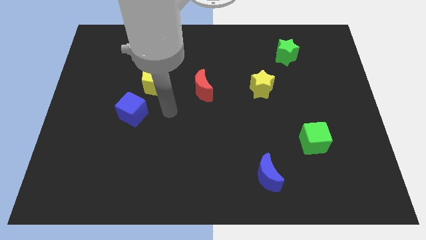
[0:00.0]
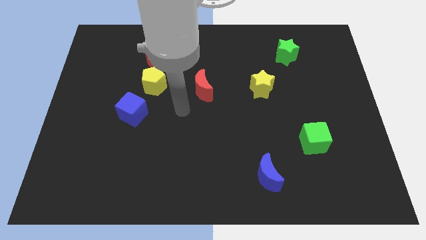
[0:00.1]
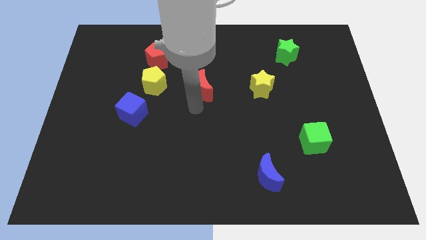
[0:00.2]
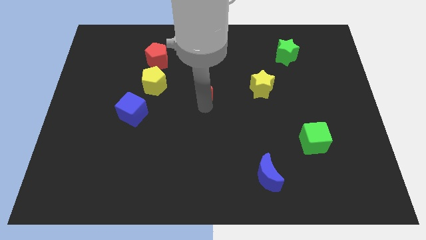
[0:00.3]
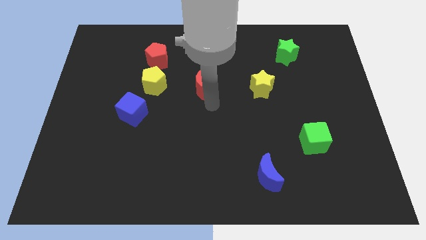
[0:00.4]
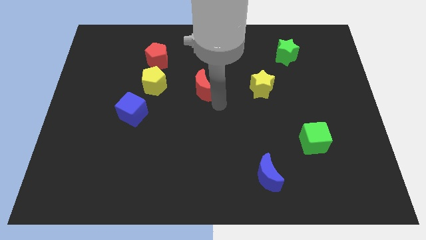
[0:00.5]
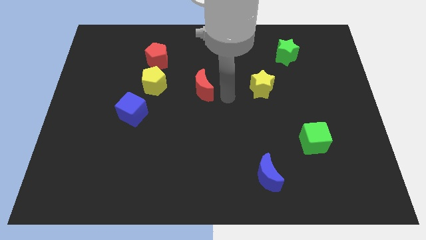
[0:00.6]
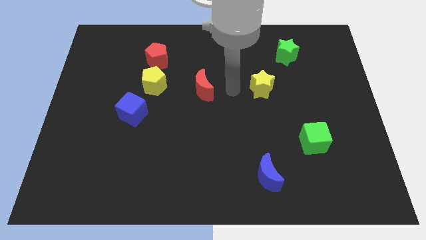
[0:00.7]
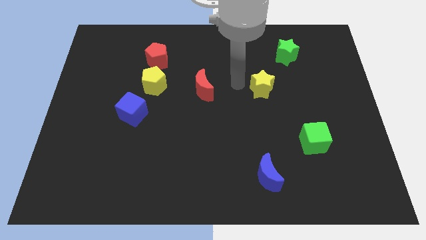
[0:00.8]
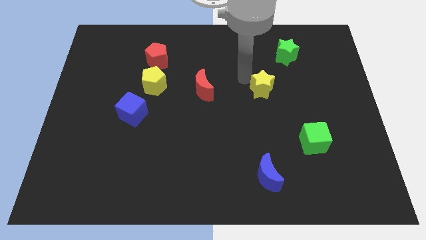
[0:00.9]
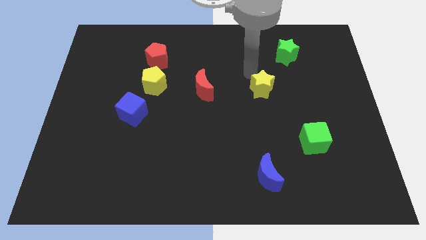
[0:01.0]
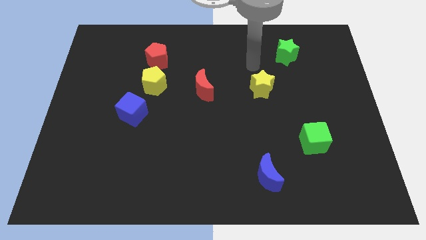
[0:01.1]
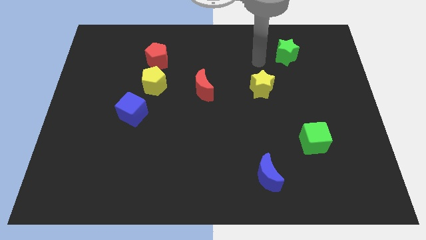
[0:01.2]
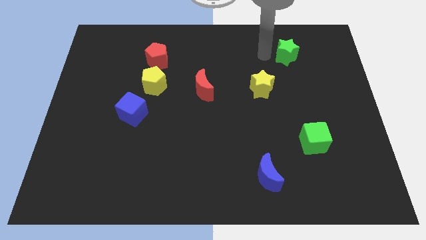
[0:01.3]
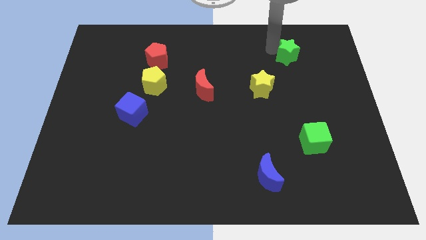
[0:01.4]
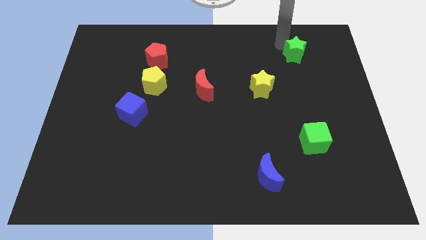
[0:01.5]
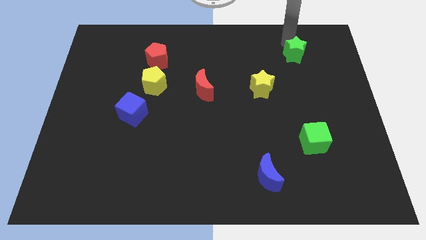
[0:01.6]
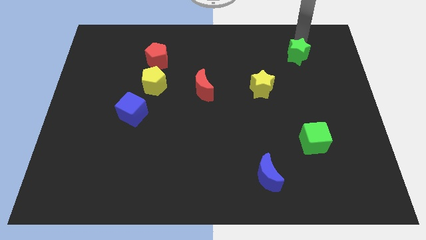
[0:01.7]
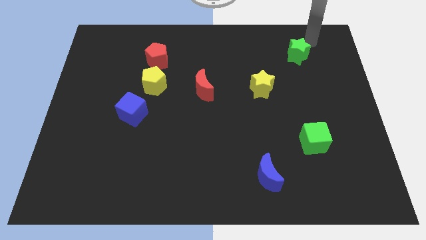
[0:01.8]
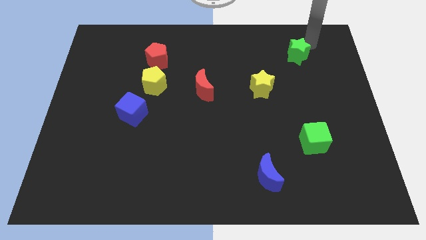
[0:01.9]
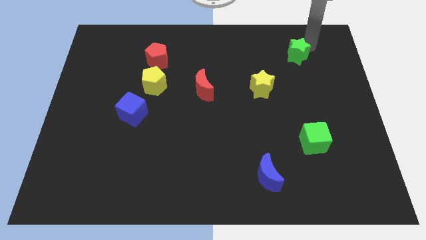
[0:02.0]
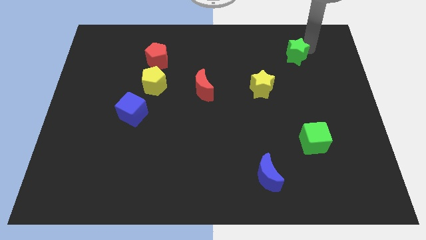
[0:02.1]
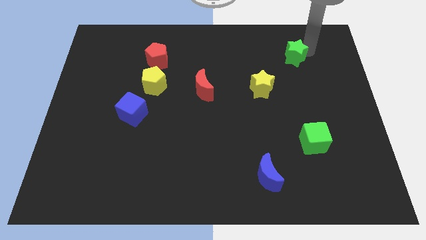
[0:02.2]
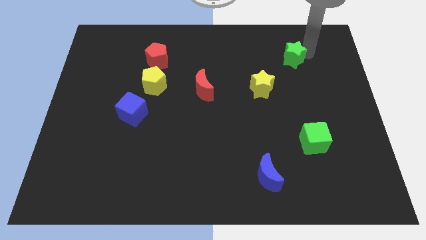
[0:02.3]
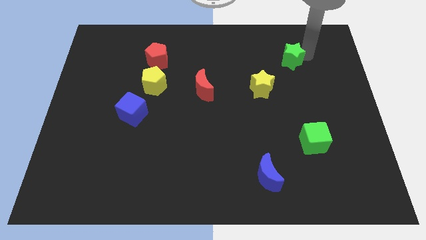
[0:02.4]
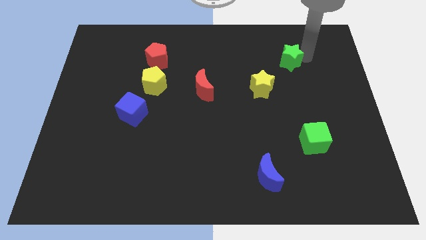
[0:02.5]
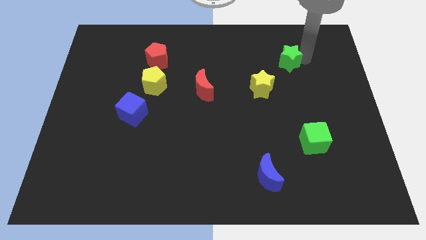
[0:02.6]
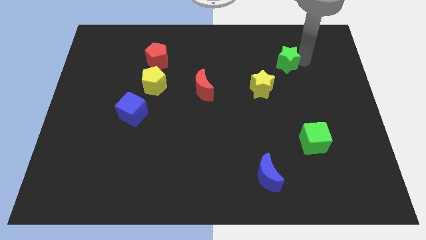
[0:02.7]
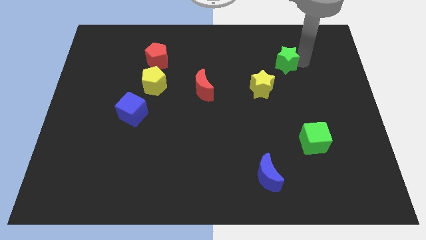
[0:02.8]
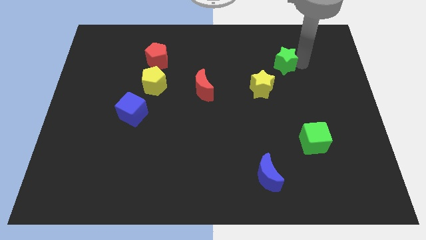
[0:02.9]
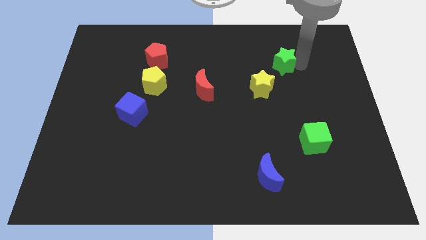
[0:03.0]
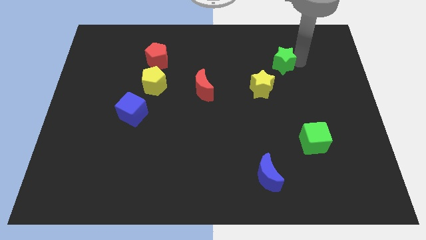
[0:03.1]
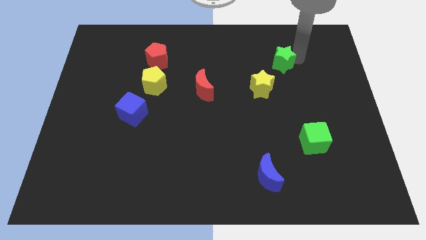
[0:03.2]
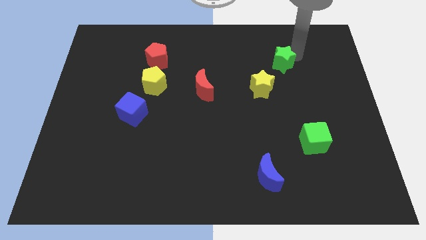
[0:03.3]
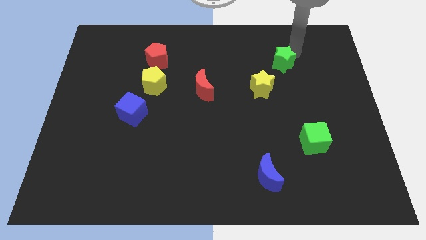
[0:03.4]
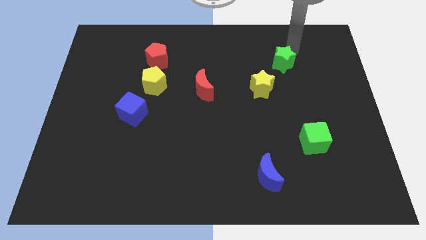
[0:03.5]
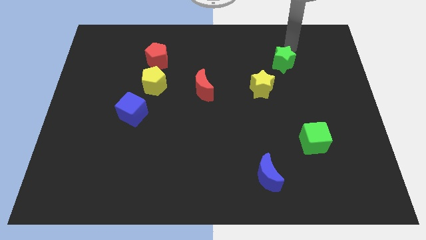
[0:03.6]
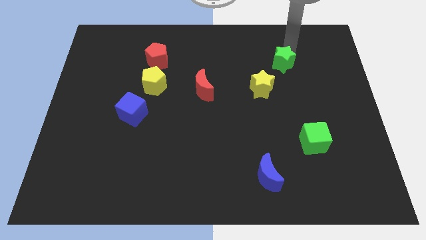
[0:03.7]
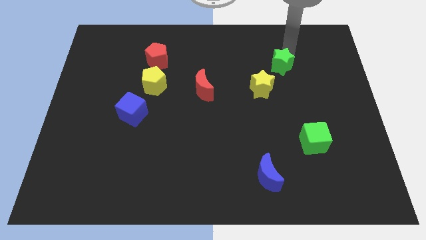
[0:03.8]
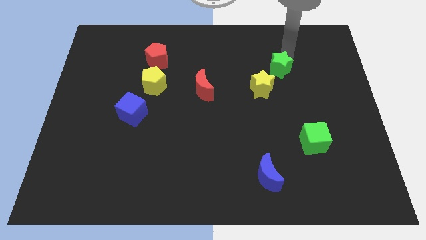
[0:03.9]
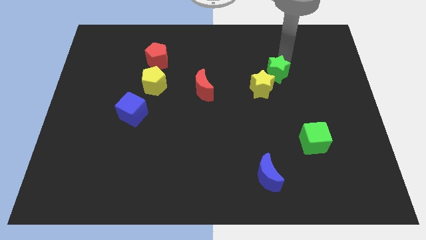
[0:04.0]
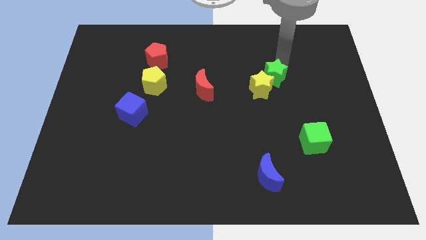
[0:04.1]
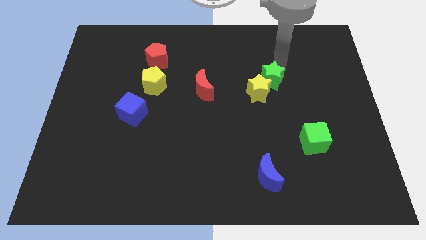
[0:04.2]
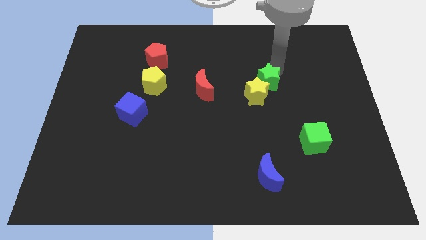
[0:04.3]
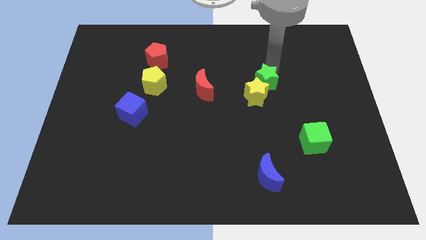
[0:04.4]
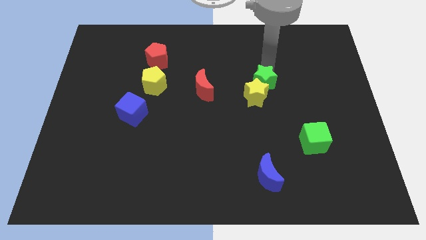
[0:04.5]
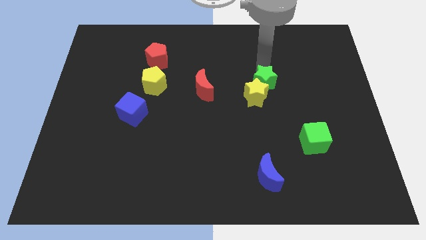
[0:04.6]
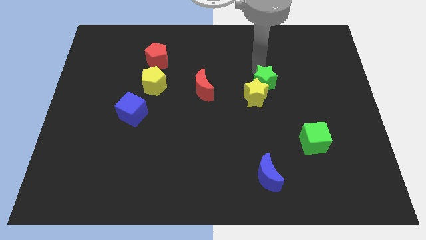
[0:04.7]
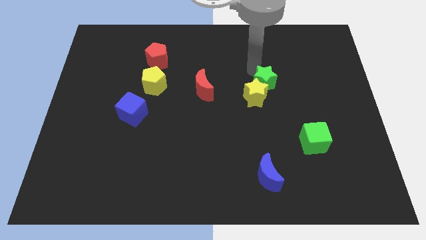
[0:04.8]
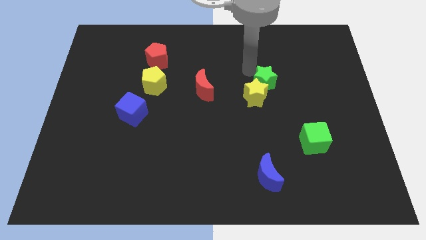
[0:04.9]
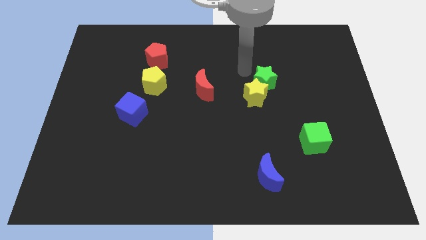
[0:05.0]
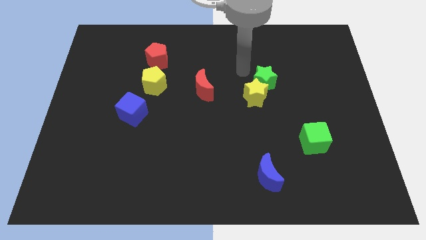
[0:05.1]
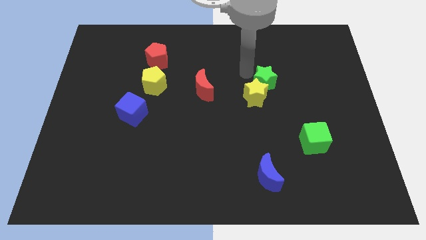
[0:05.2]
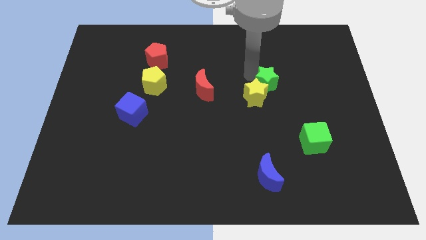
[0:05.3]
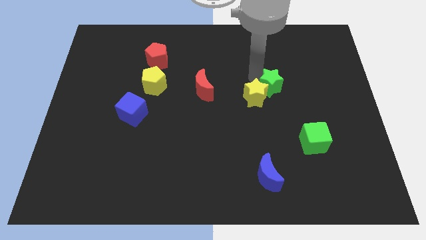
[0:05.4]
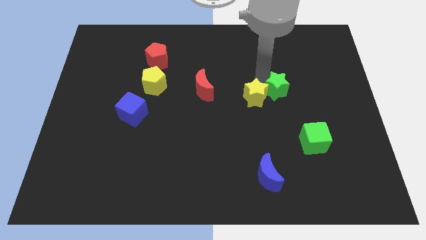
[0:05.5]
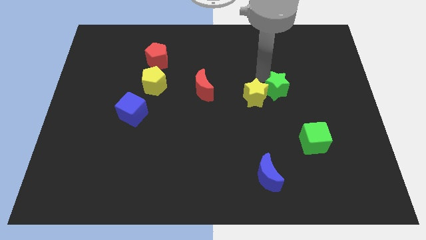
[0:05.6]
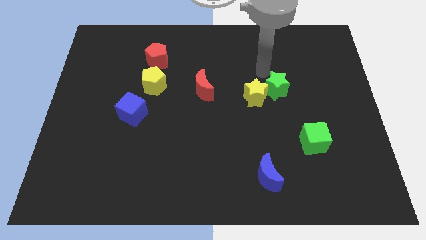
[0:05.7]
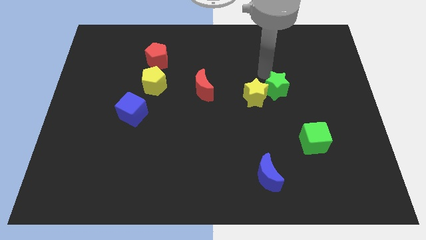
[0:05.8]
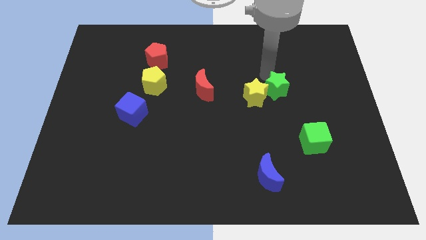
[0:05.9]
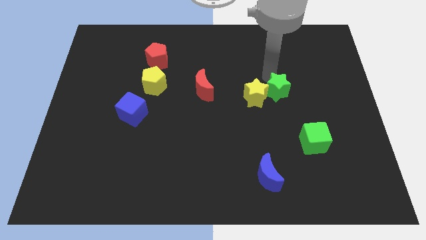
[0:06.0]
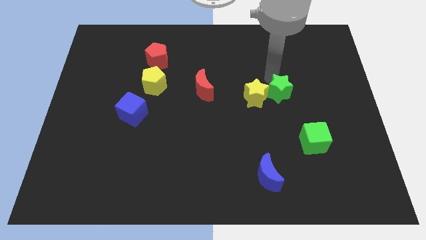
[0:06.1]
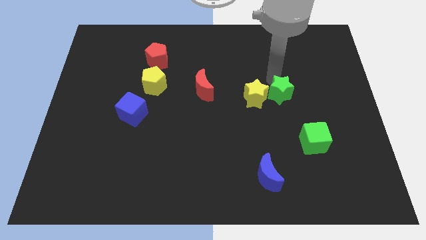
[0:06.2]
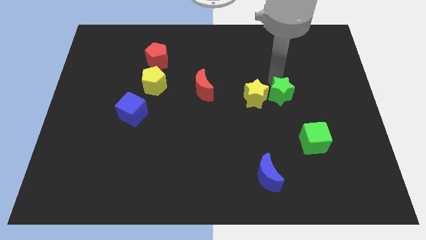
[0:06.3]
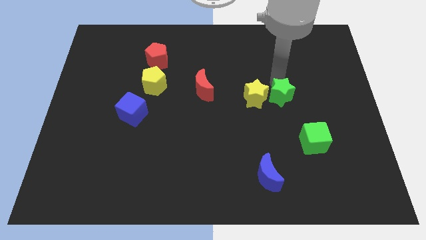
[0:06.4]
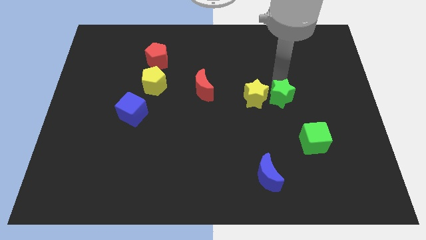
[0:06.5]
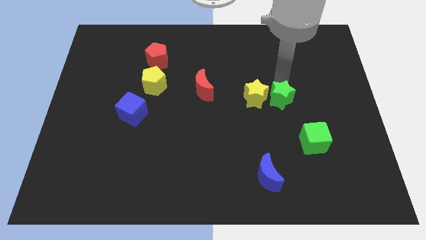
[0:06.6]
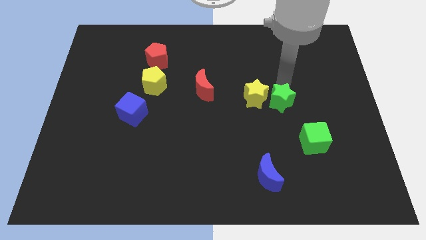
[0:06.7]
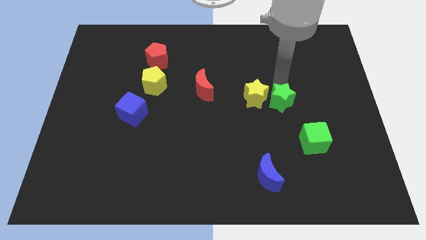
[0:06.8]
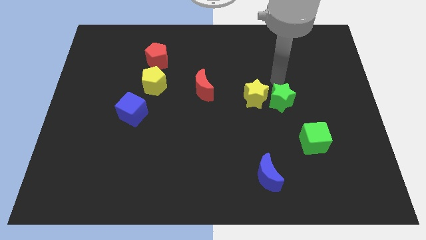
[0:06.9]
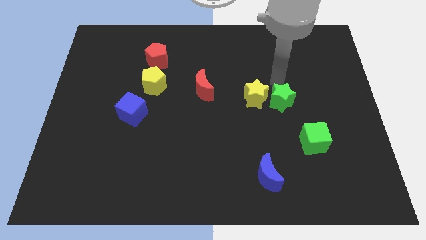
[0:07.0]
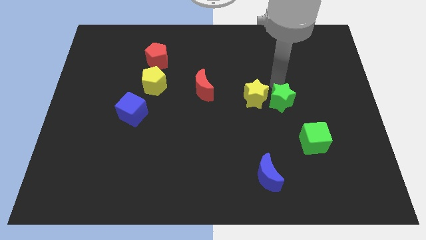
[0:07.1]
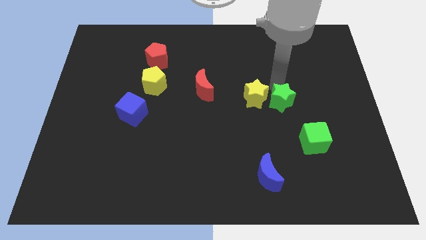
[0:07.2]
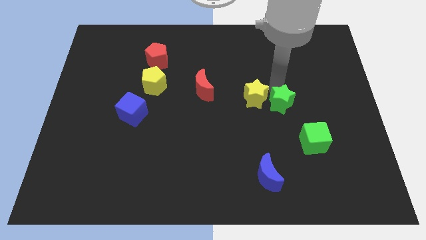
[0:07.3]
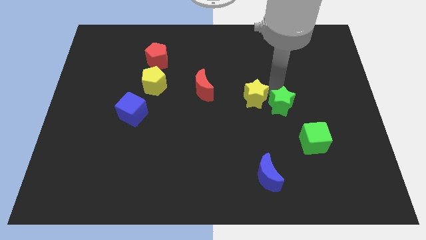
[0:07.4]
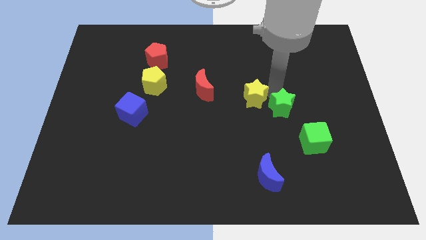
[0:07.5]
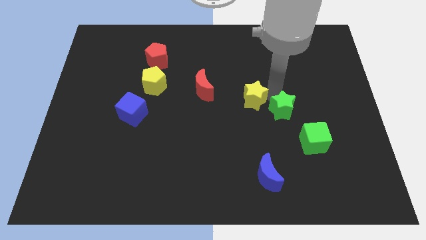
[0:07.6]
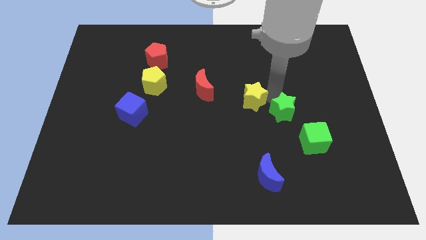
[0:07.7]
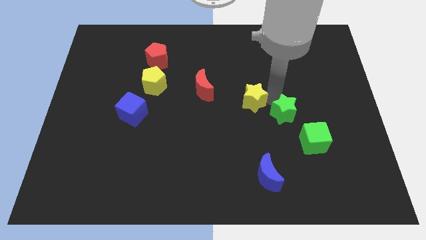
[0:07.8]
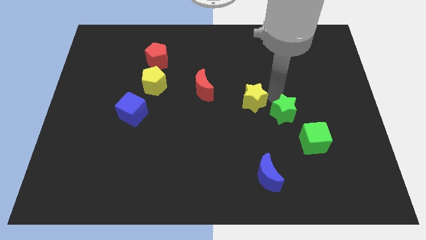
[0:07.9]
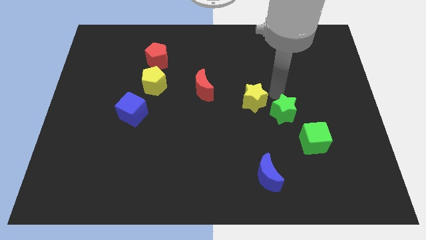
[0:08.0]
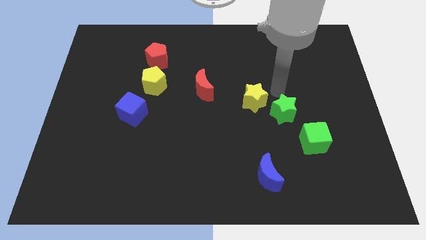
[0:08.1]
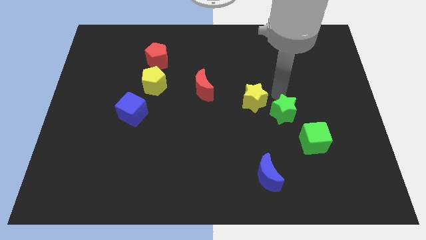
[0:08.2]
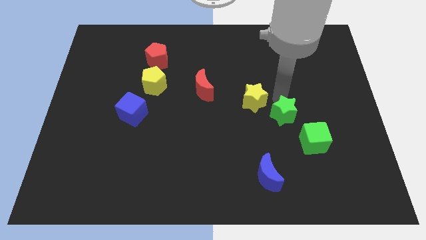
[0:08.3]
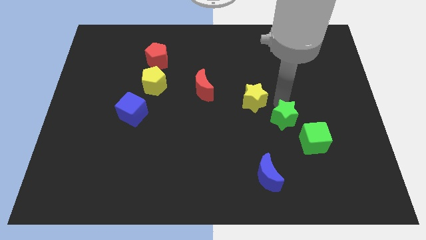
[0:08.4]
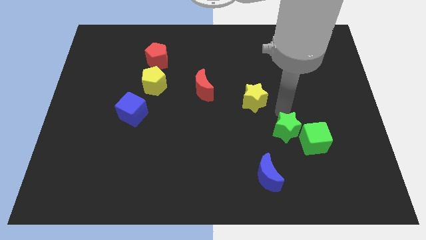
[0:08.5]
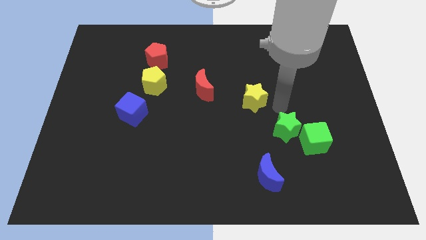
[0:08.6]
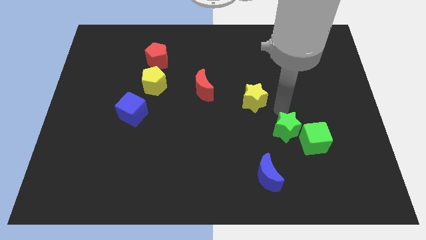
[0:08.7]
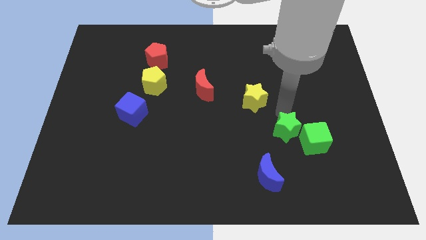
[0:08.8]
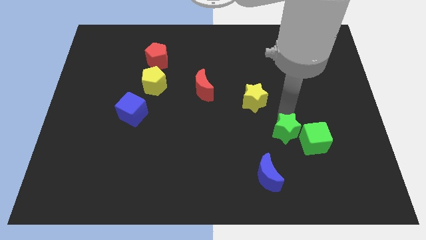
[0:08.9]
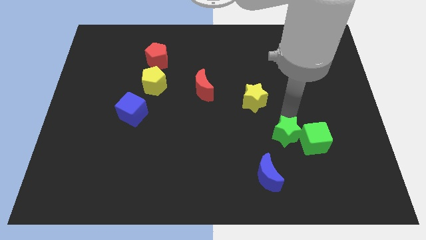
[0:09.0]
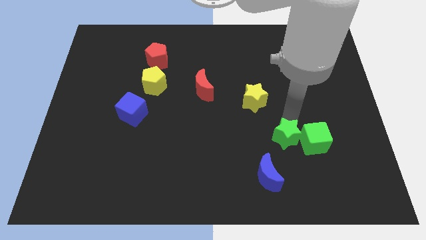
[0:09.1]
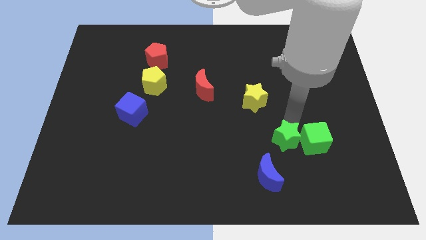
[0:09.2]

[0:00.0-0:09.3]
put the green star to the bottom left of the green cube
